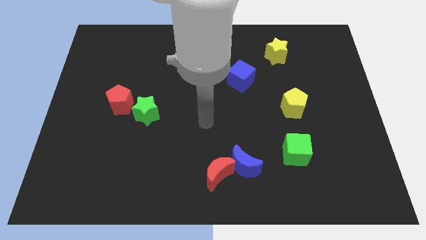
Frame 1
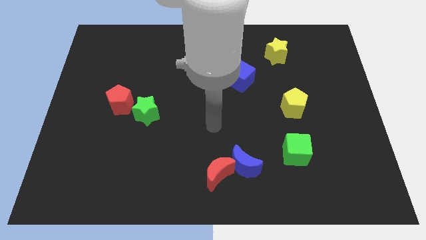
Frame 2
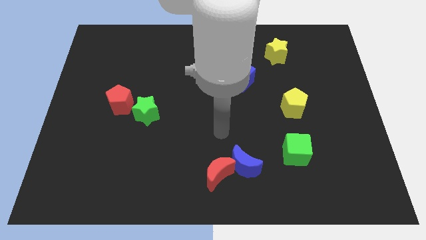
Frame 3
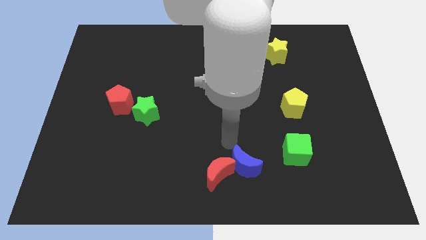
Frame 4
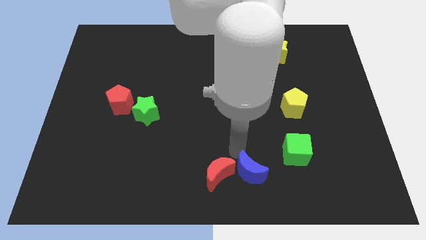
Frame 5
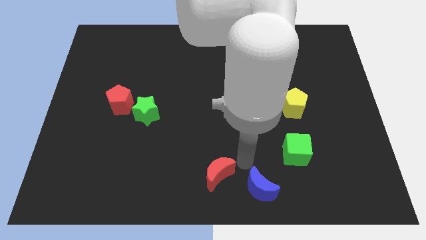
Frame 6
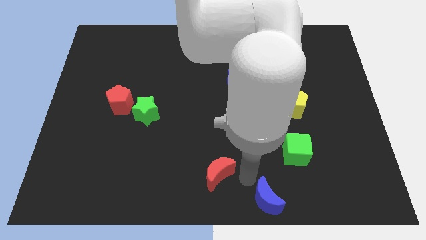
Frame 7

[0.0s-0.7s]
separate the red moon from the blue moon

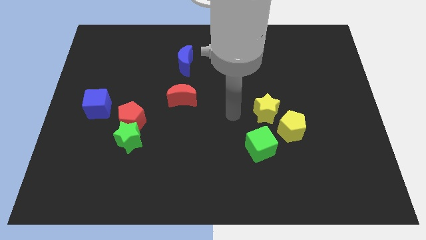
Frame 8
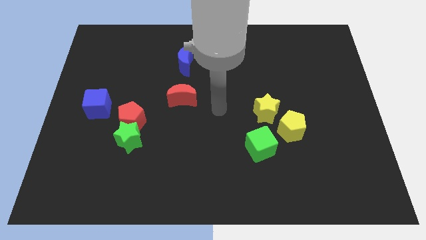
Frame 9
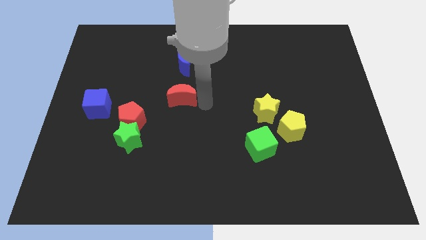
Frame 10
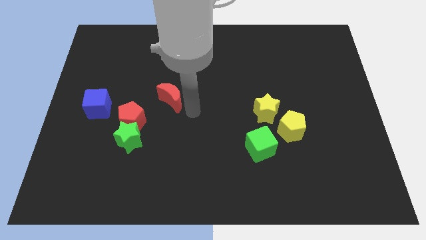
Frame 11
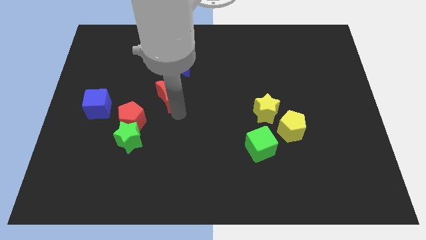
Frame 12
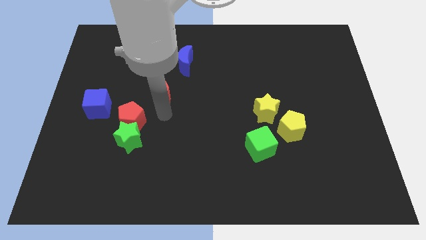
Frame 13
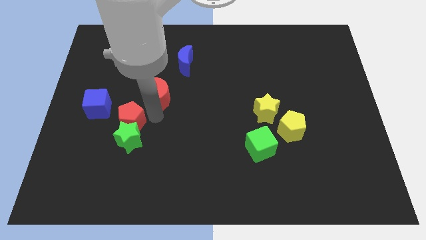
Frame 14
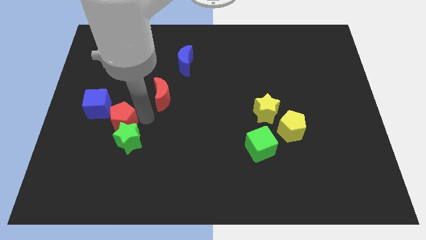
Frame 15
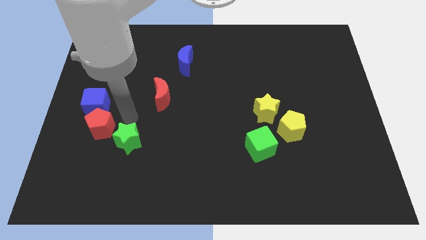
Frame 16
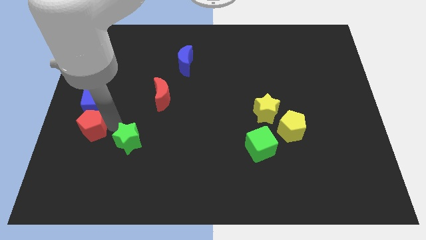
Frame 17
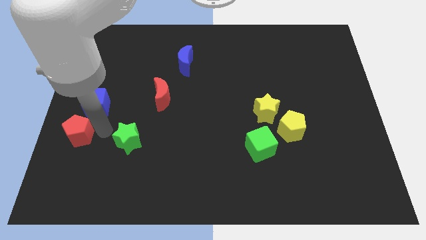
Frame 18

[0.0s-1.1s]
pull the green star apart from the red pentagon

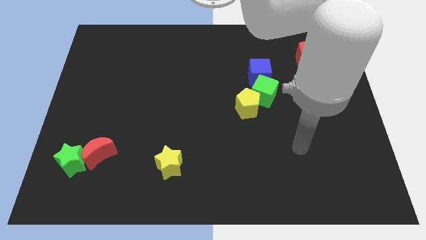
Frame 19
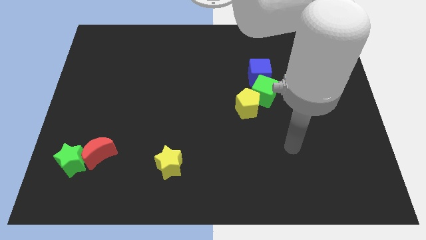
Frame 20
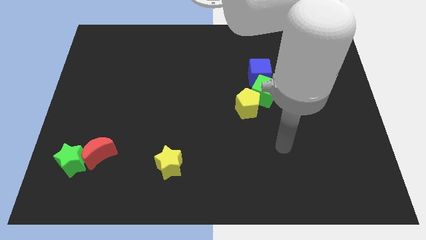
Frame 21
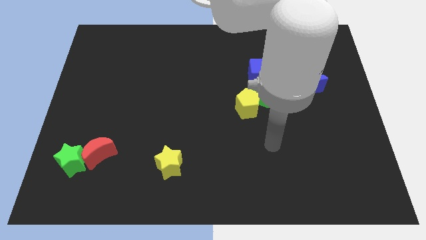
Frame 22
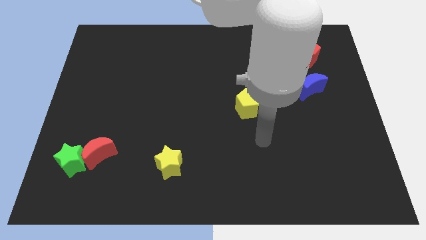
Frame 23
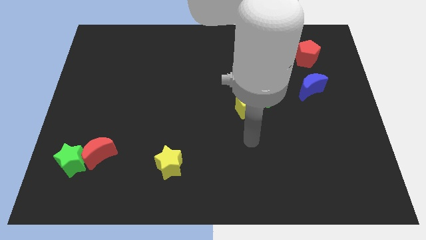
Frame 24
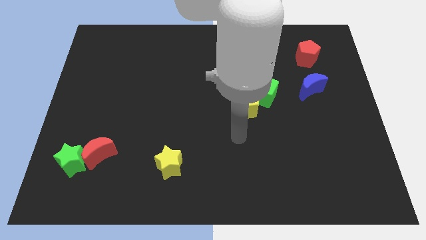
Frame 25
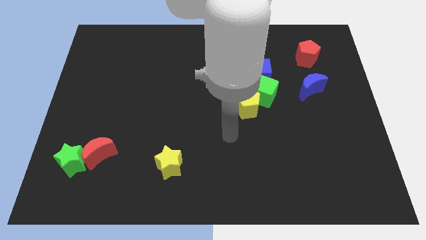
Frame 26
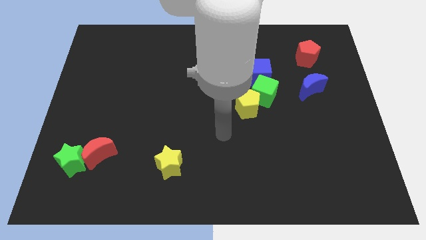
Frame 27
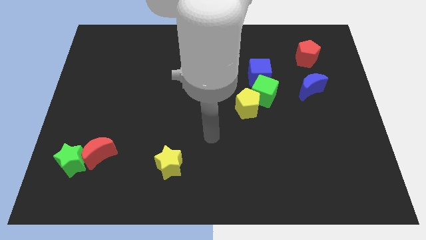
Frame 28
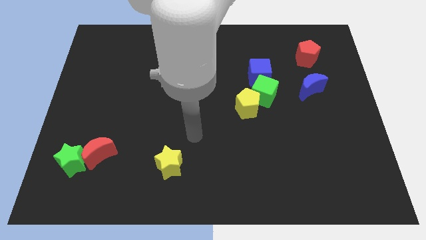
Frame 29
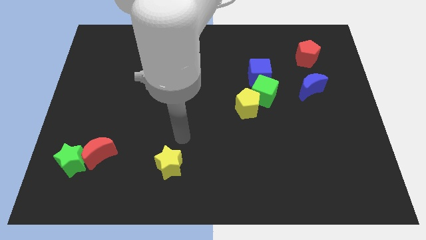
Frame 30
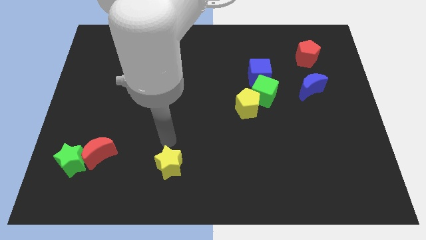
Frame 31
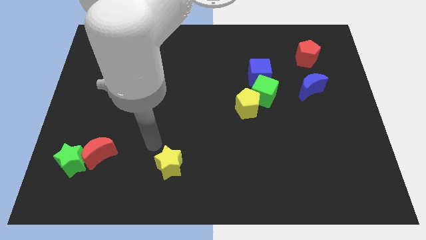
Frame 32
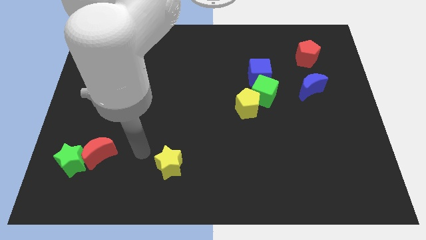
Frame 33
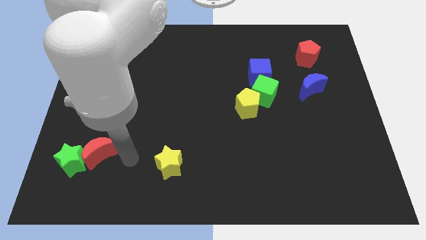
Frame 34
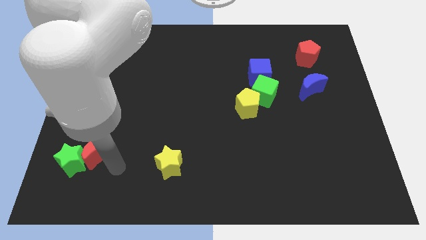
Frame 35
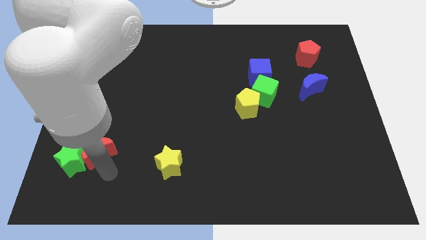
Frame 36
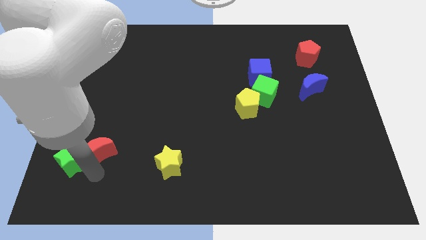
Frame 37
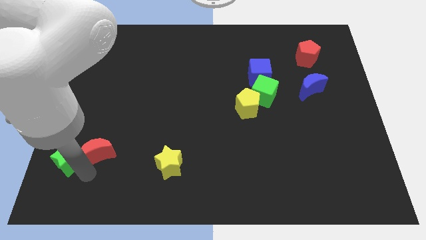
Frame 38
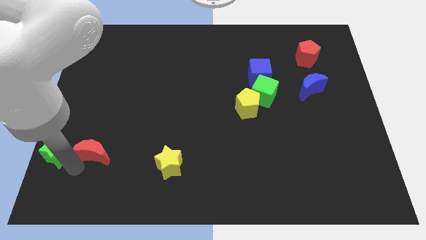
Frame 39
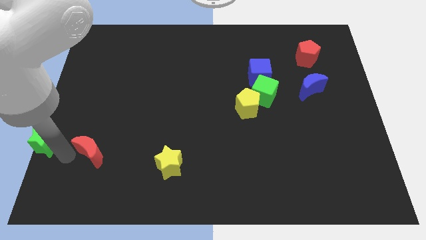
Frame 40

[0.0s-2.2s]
separate the red moon from the green star

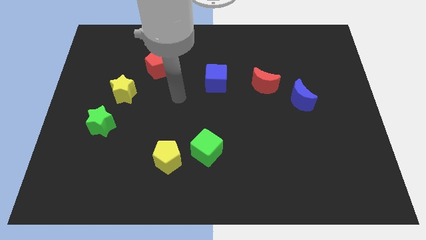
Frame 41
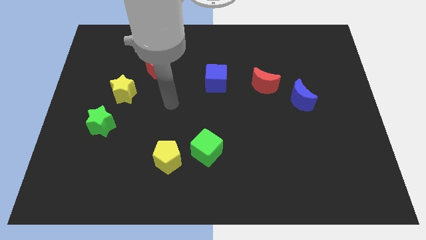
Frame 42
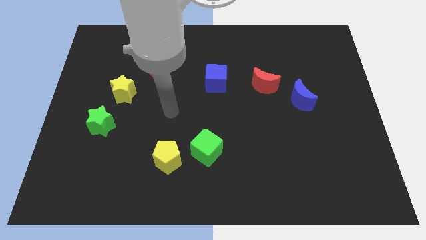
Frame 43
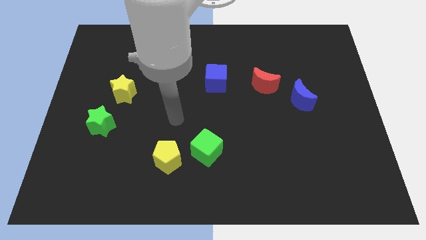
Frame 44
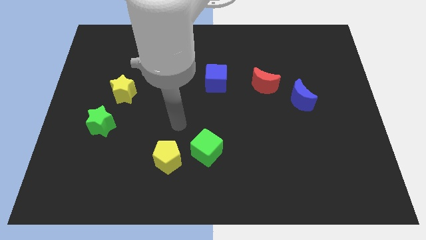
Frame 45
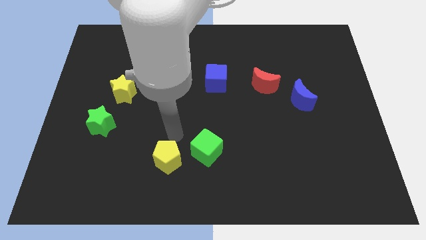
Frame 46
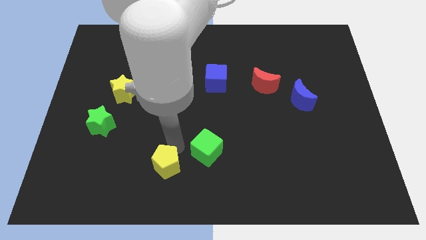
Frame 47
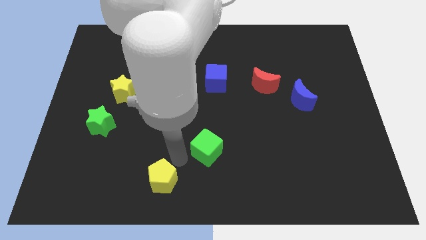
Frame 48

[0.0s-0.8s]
separate the green cube from the yellow pentagon

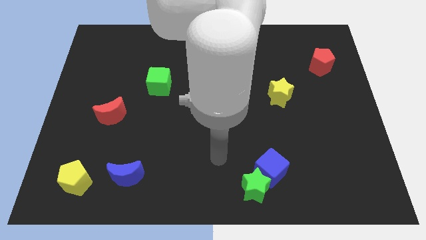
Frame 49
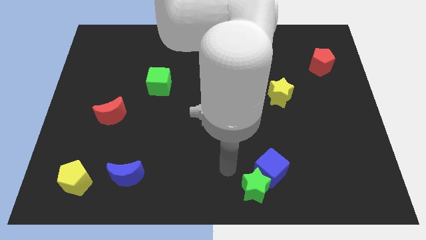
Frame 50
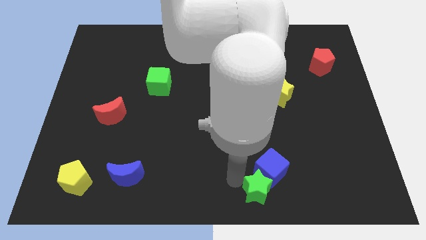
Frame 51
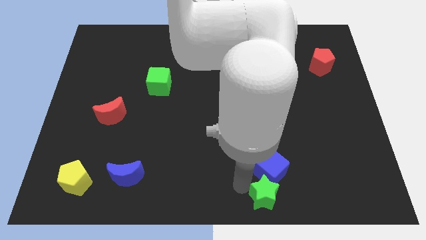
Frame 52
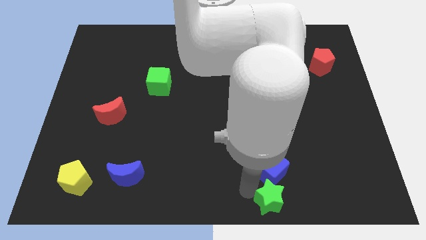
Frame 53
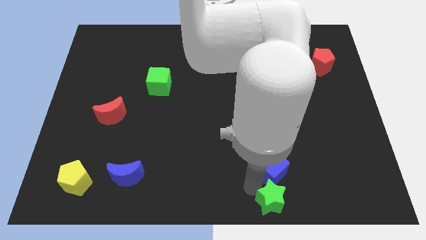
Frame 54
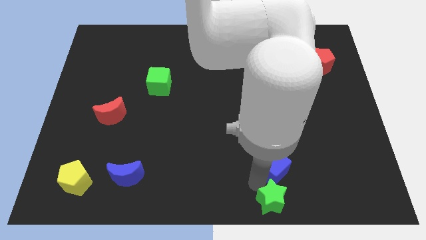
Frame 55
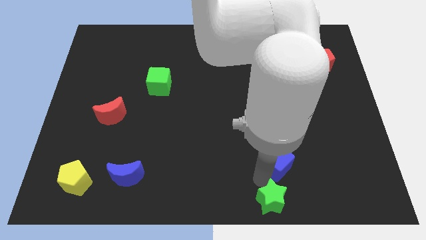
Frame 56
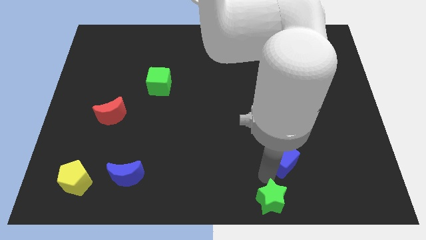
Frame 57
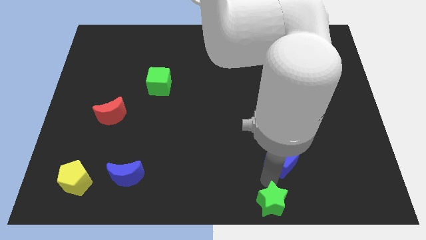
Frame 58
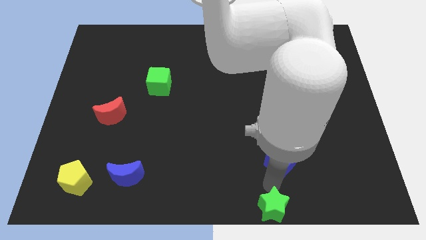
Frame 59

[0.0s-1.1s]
pull the blue cube apart from the green star

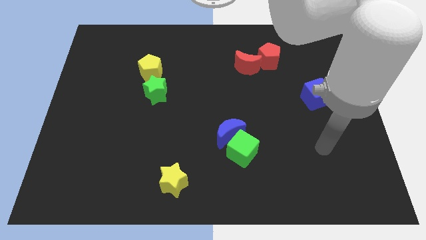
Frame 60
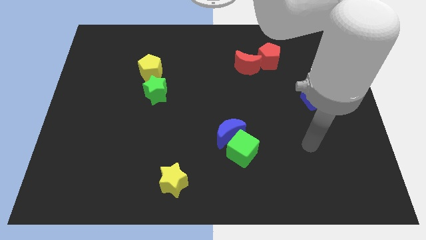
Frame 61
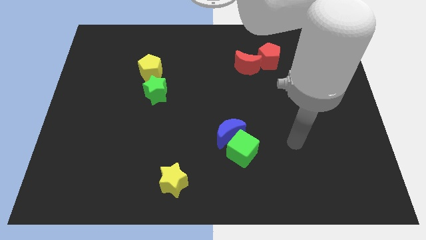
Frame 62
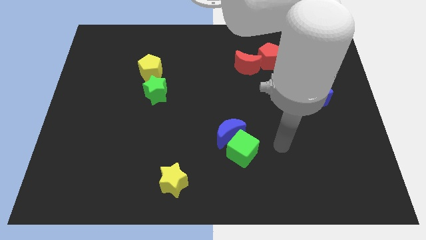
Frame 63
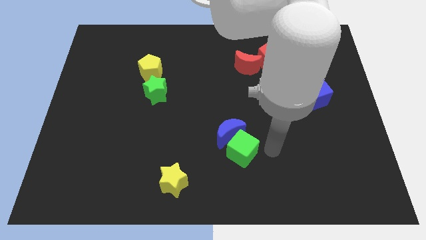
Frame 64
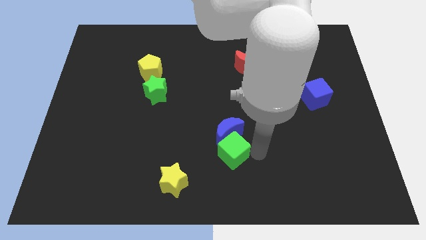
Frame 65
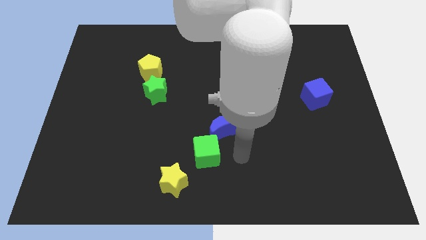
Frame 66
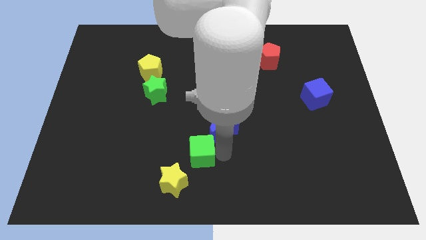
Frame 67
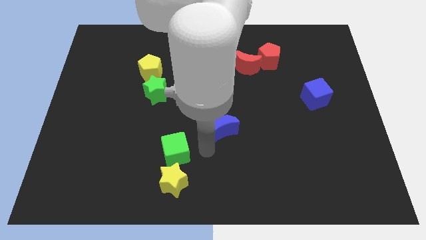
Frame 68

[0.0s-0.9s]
move the blue moon away from the green cube

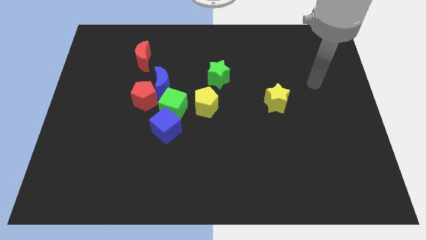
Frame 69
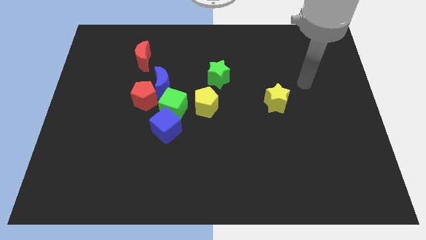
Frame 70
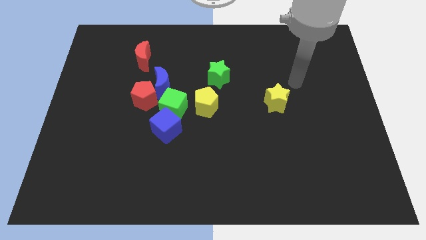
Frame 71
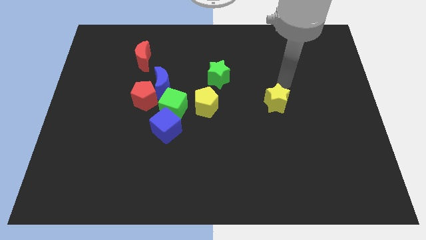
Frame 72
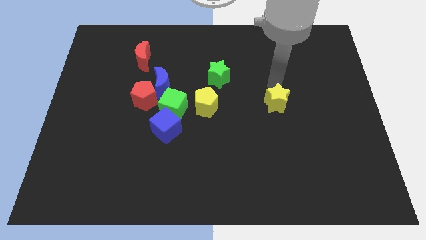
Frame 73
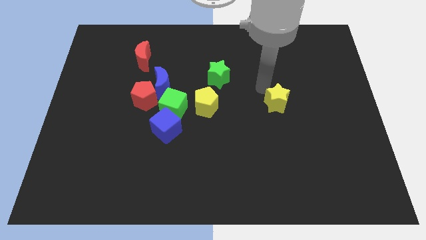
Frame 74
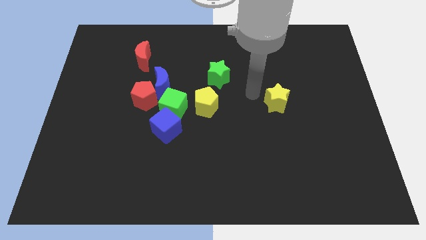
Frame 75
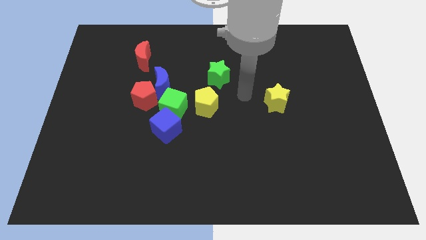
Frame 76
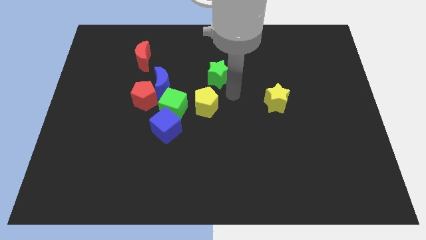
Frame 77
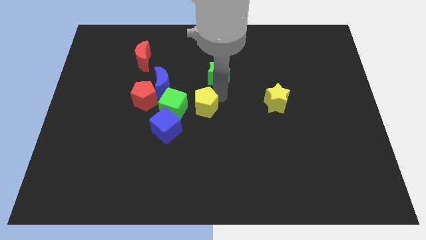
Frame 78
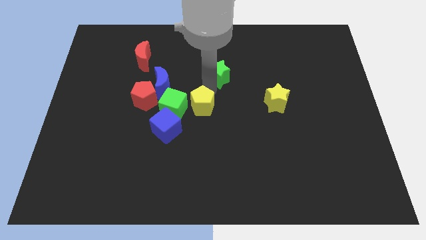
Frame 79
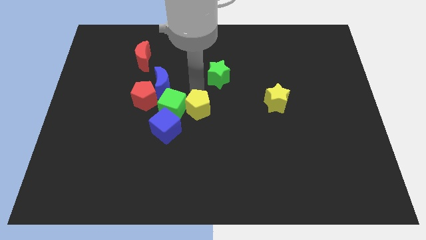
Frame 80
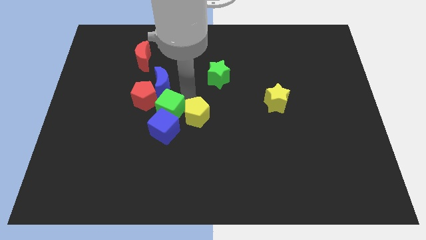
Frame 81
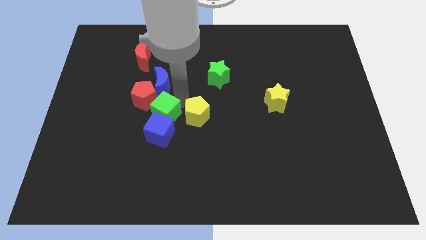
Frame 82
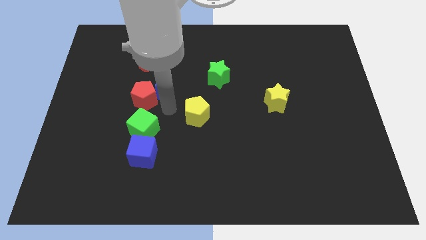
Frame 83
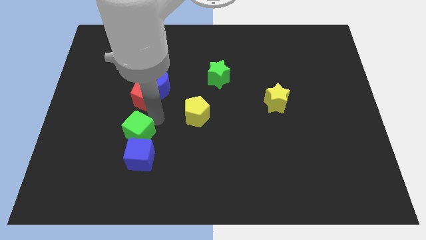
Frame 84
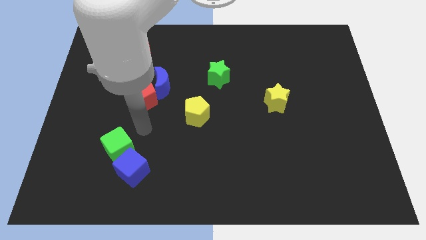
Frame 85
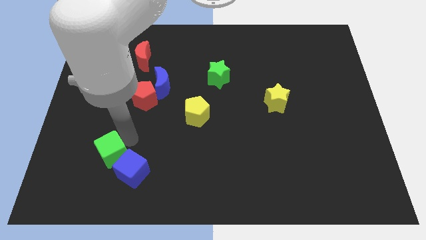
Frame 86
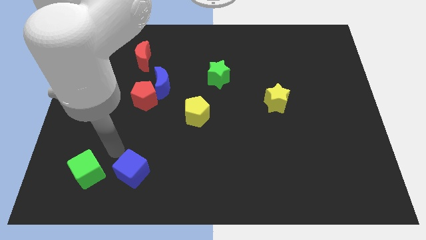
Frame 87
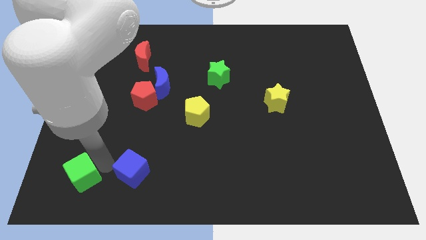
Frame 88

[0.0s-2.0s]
pull the blue cube apart from the green cube

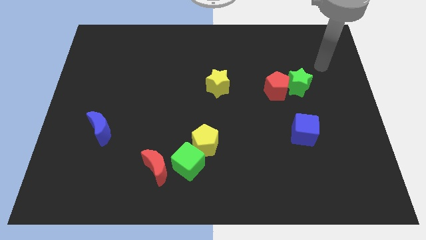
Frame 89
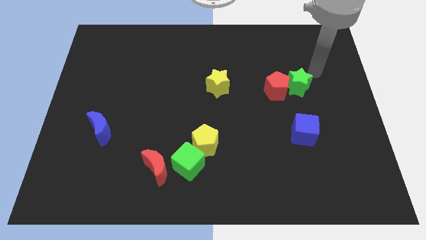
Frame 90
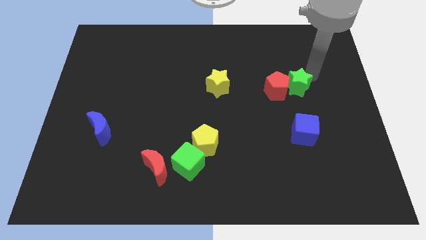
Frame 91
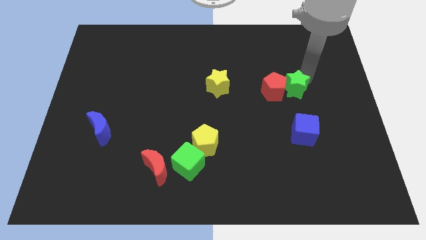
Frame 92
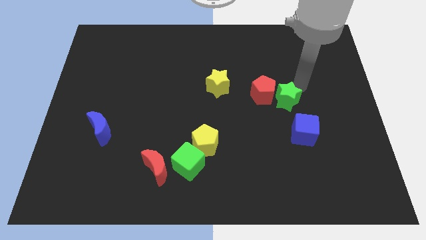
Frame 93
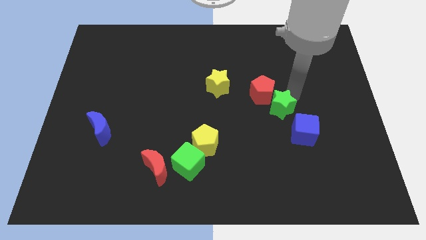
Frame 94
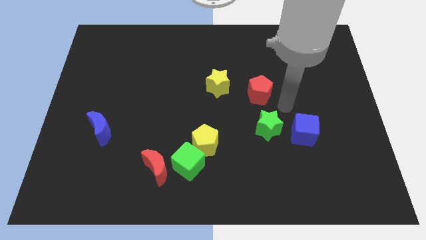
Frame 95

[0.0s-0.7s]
pull the red pentagon apart from the green star
